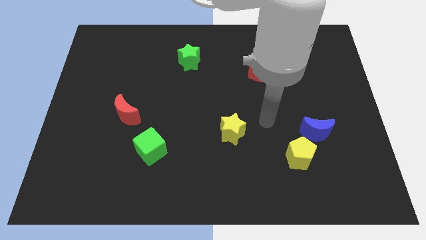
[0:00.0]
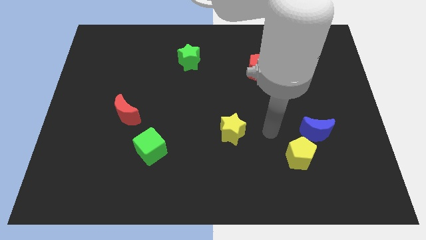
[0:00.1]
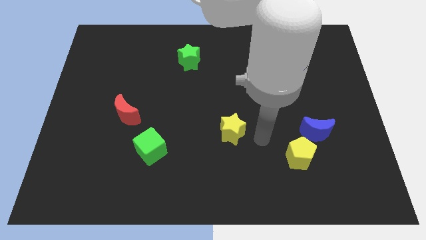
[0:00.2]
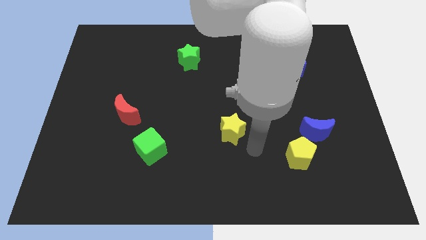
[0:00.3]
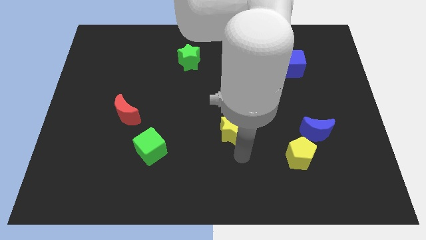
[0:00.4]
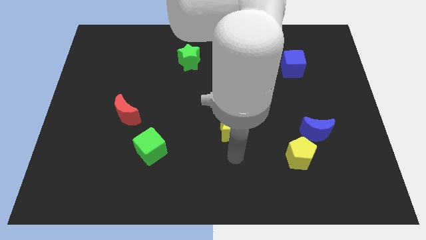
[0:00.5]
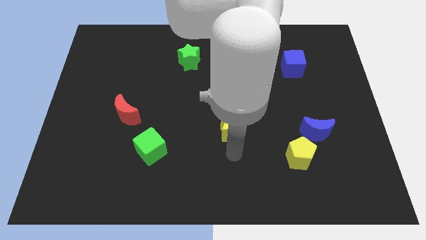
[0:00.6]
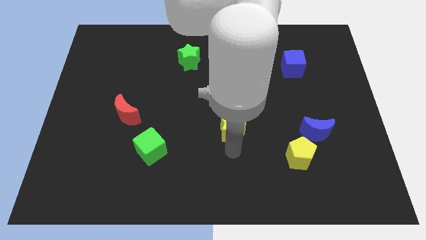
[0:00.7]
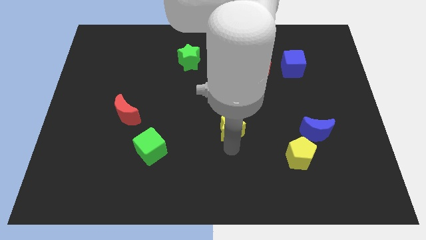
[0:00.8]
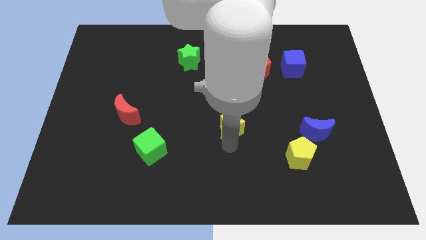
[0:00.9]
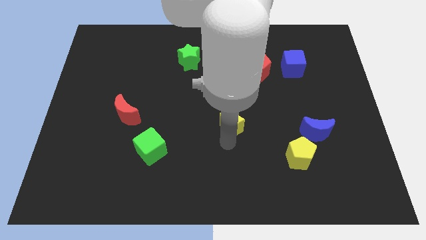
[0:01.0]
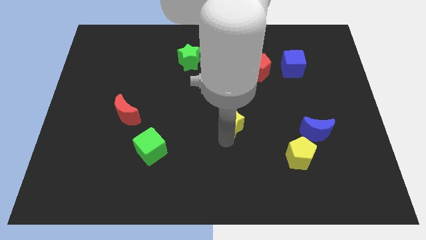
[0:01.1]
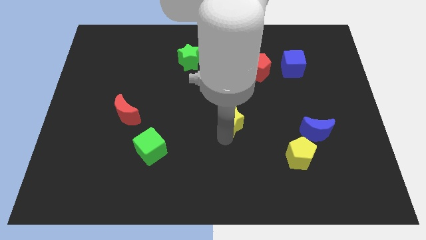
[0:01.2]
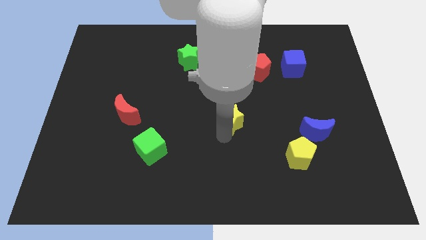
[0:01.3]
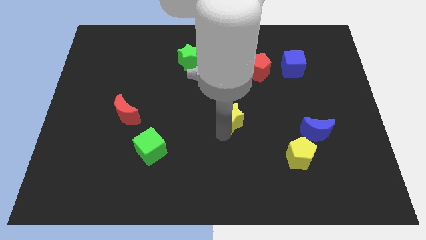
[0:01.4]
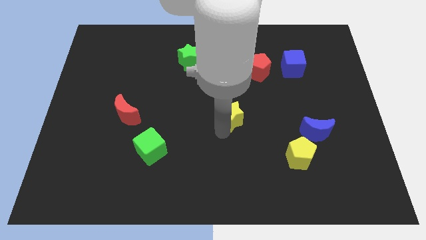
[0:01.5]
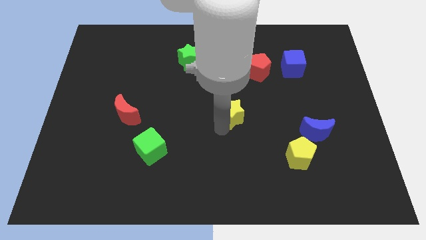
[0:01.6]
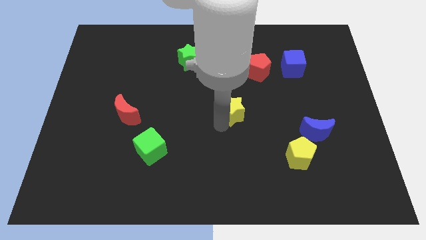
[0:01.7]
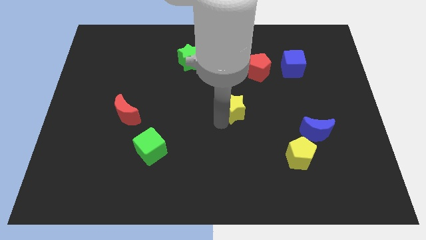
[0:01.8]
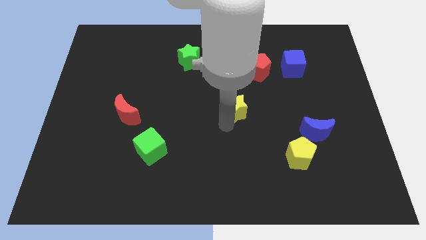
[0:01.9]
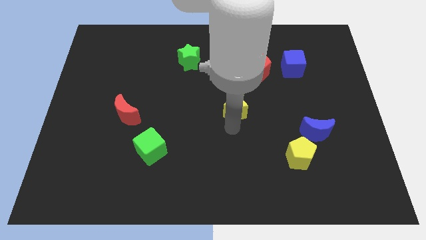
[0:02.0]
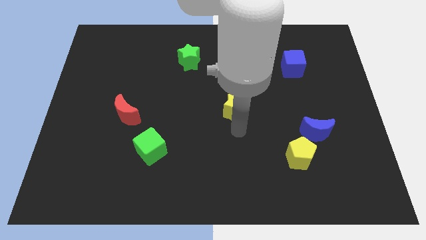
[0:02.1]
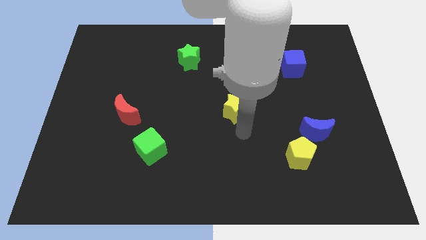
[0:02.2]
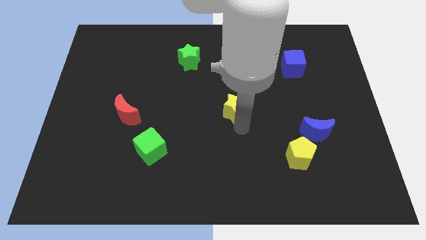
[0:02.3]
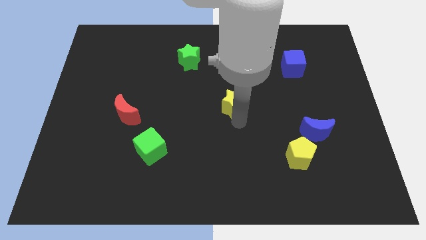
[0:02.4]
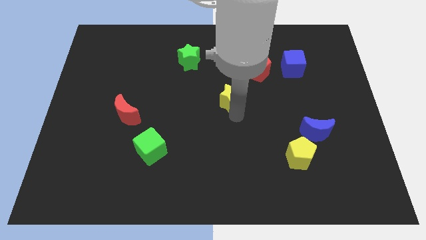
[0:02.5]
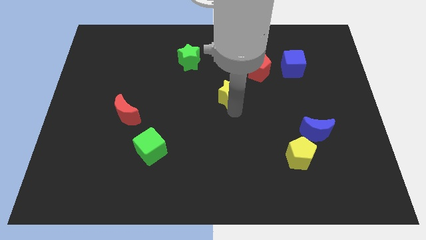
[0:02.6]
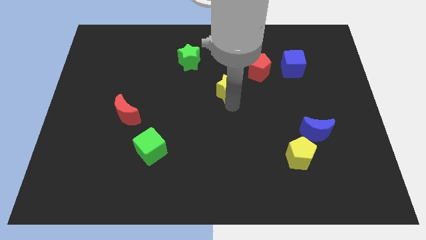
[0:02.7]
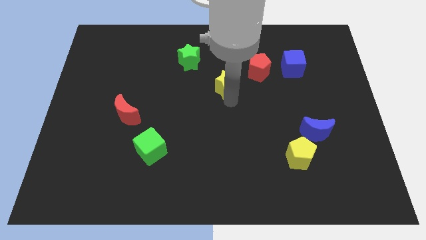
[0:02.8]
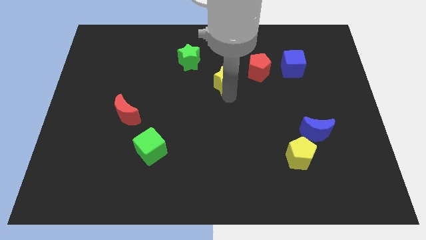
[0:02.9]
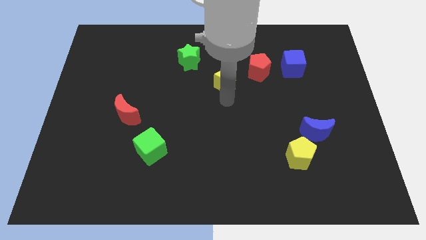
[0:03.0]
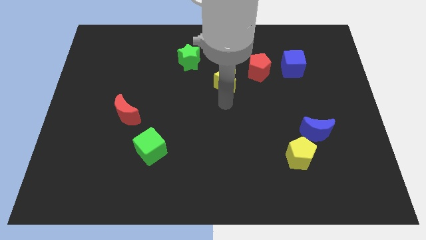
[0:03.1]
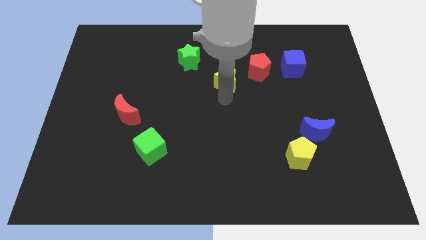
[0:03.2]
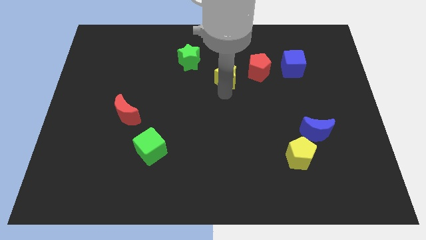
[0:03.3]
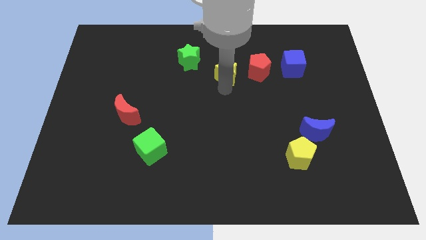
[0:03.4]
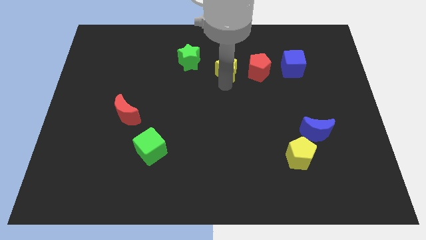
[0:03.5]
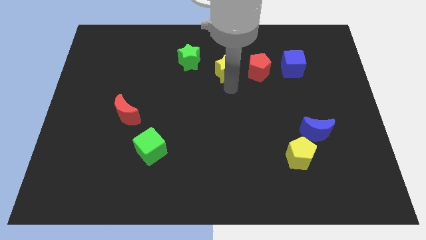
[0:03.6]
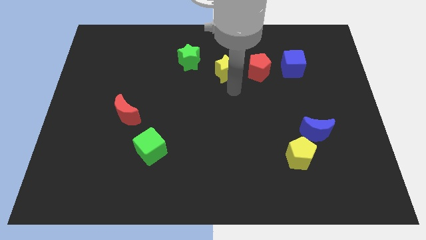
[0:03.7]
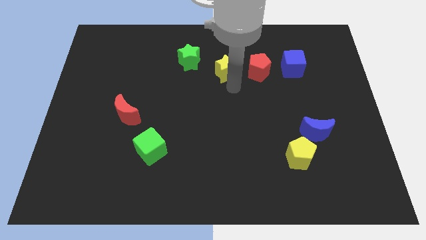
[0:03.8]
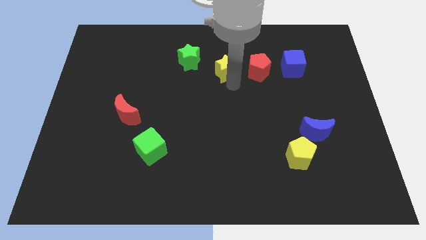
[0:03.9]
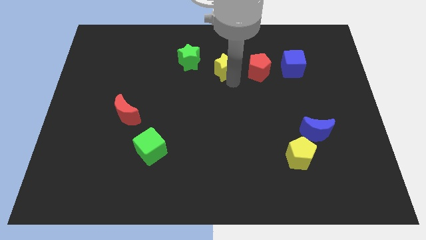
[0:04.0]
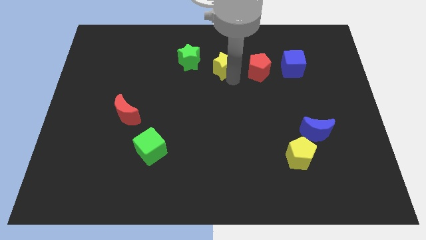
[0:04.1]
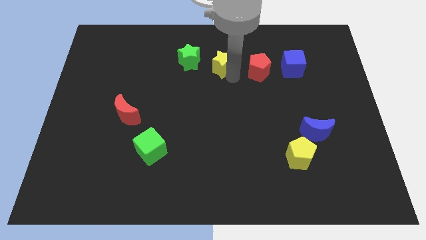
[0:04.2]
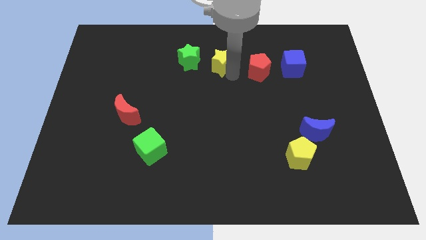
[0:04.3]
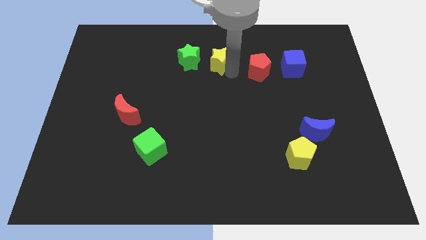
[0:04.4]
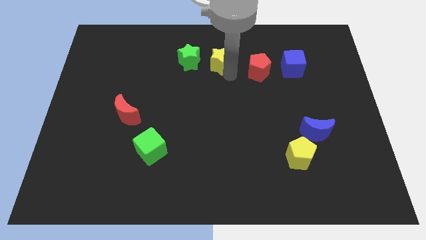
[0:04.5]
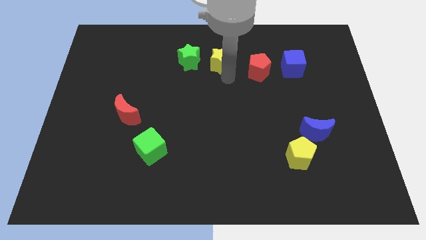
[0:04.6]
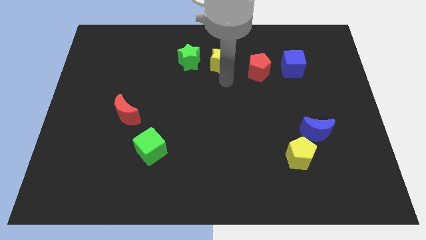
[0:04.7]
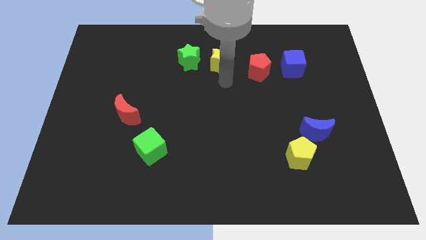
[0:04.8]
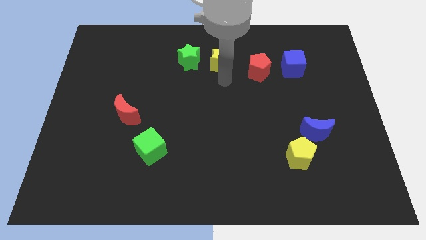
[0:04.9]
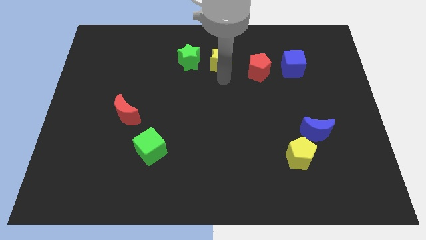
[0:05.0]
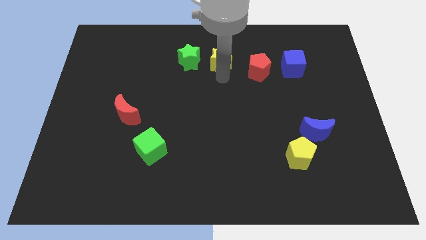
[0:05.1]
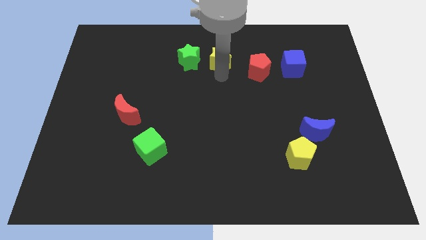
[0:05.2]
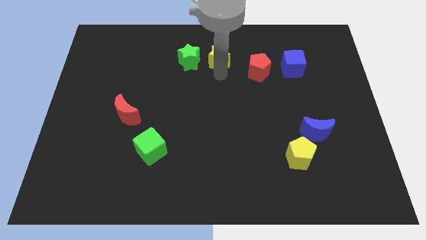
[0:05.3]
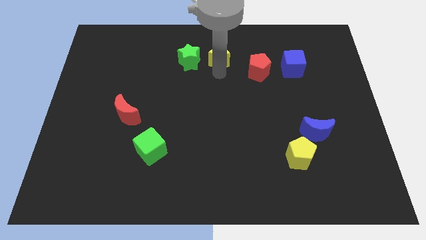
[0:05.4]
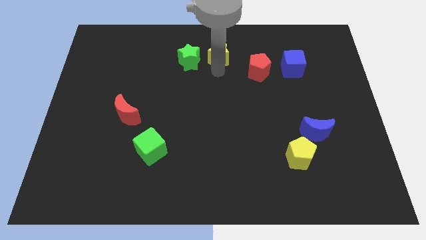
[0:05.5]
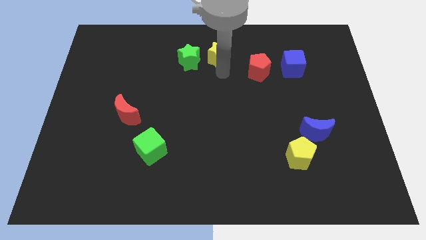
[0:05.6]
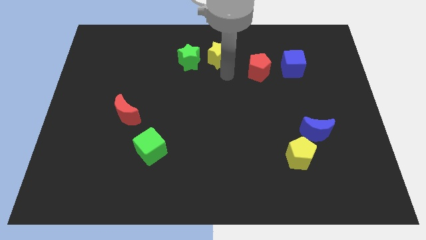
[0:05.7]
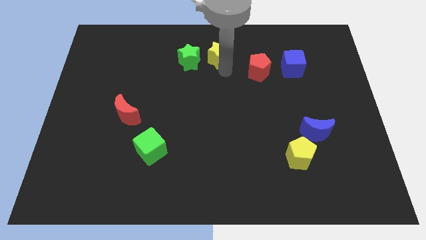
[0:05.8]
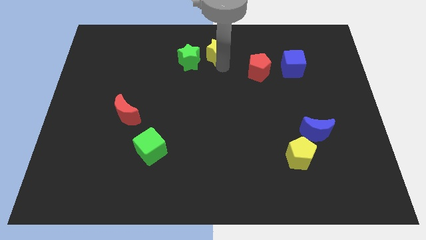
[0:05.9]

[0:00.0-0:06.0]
move the yellow star to the top

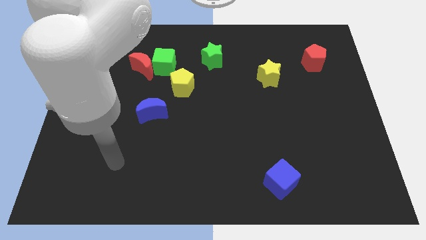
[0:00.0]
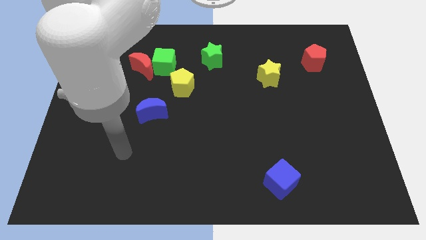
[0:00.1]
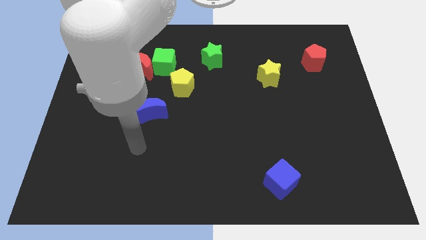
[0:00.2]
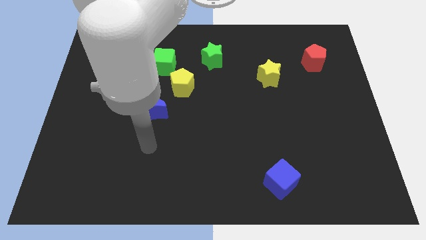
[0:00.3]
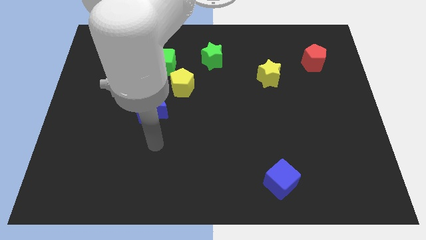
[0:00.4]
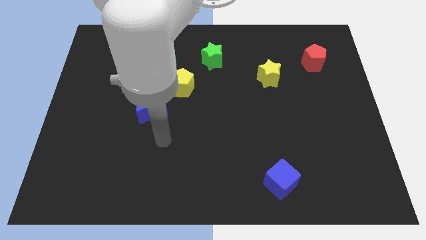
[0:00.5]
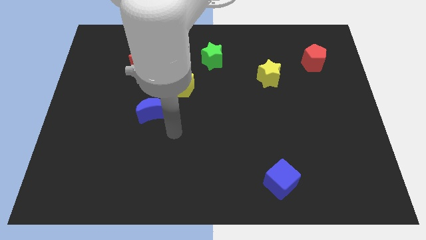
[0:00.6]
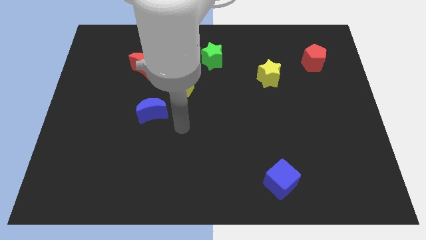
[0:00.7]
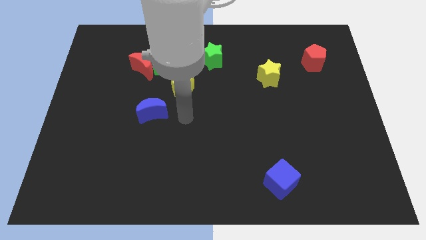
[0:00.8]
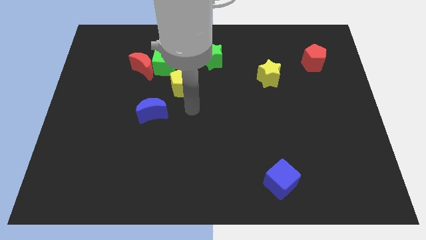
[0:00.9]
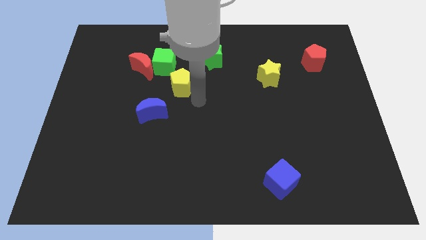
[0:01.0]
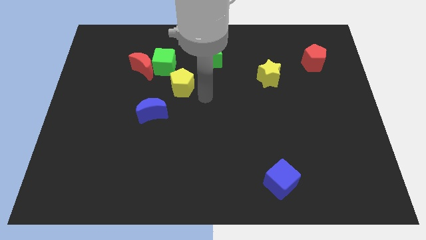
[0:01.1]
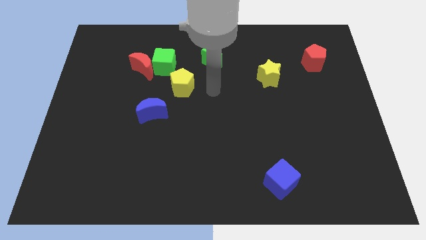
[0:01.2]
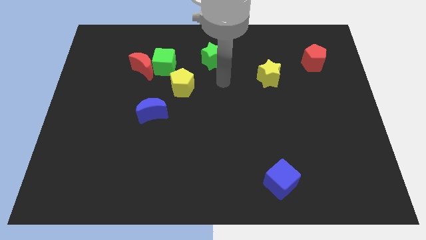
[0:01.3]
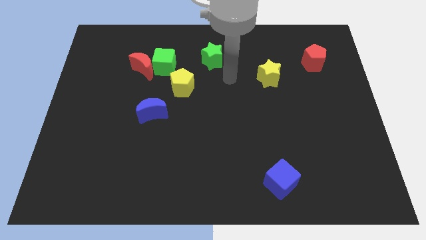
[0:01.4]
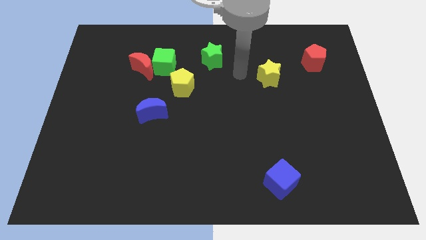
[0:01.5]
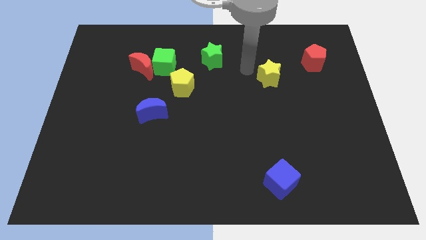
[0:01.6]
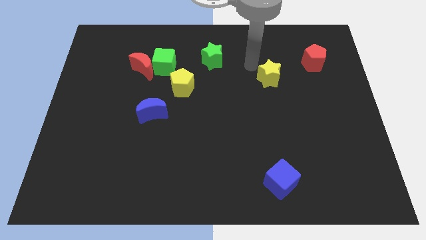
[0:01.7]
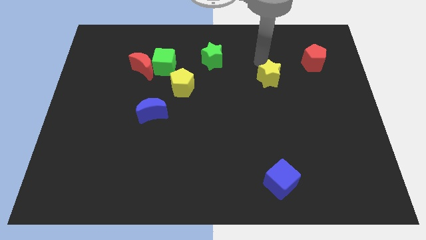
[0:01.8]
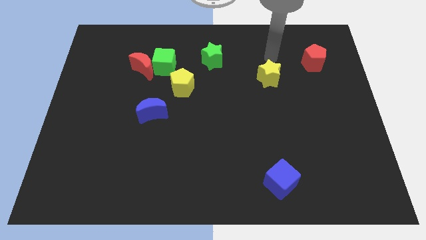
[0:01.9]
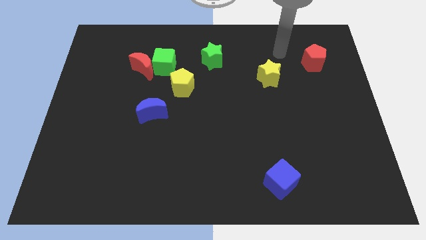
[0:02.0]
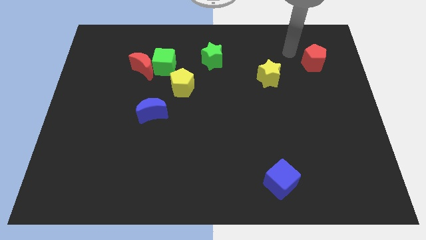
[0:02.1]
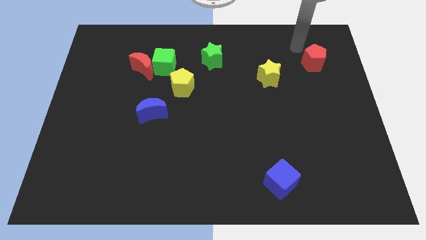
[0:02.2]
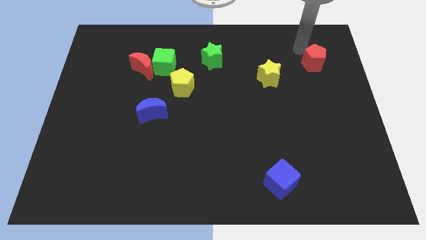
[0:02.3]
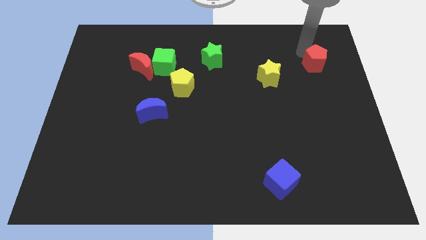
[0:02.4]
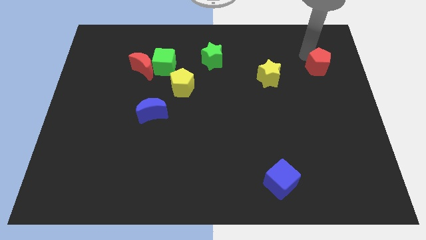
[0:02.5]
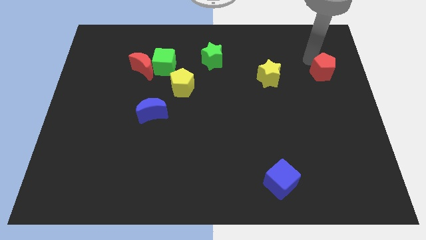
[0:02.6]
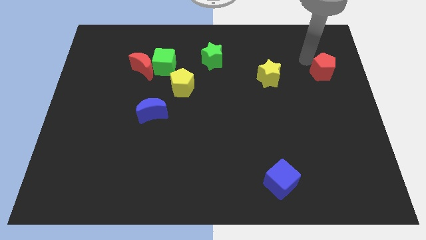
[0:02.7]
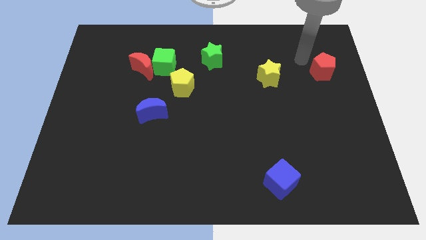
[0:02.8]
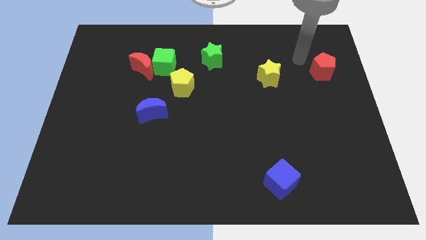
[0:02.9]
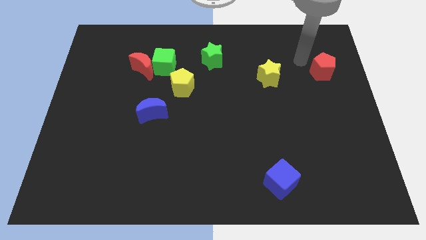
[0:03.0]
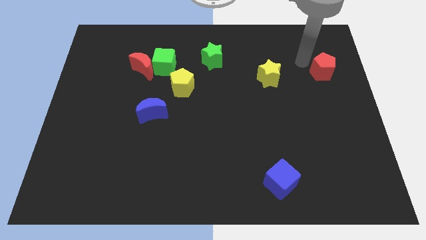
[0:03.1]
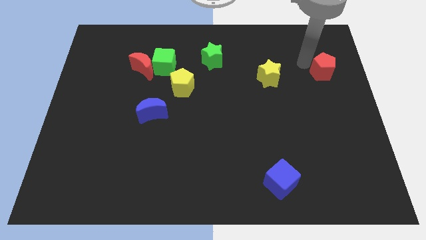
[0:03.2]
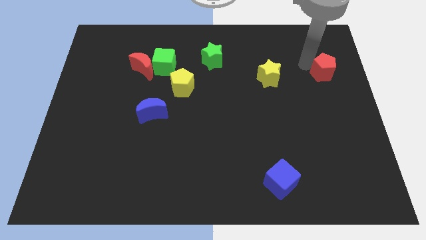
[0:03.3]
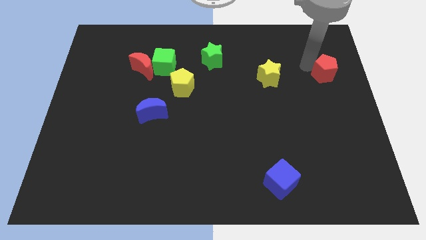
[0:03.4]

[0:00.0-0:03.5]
put the red pentagon to the right side
